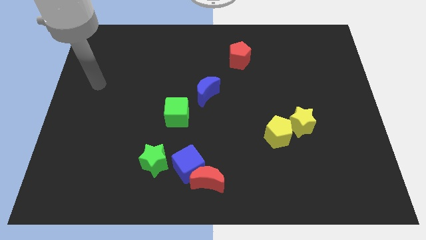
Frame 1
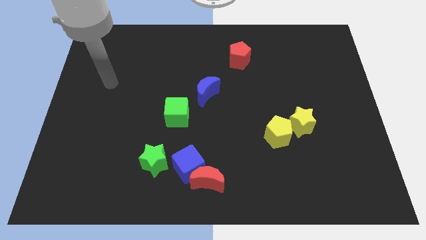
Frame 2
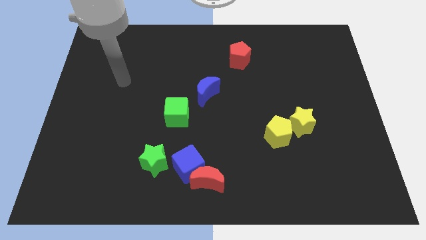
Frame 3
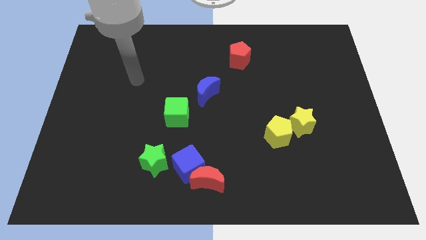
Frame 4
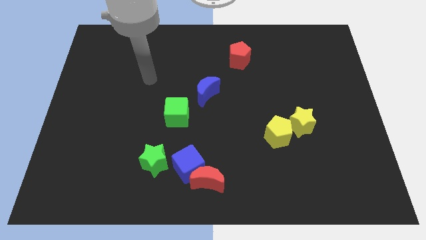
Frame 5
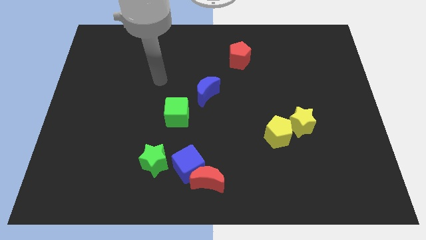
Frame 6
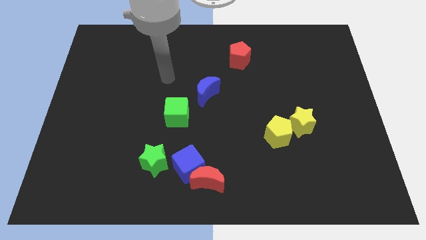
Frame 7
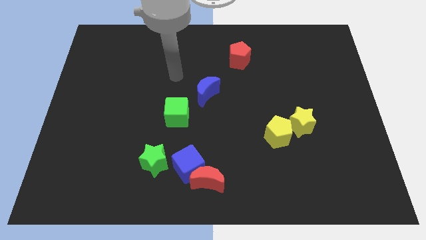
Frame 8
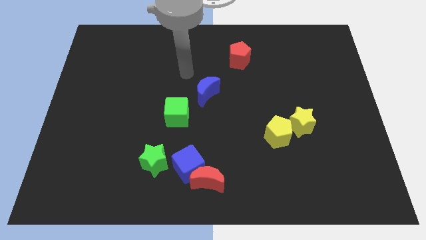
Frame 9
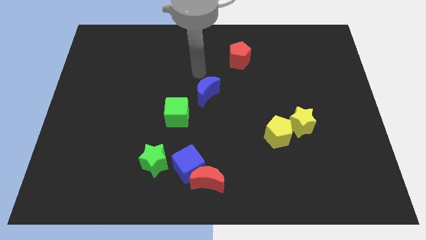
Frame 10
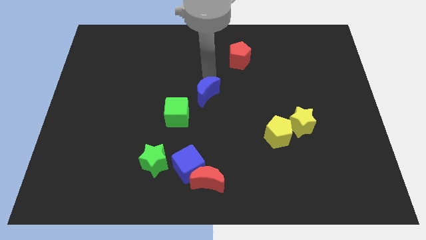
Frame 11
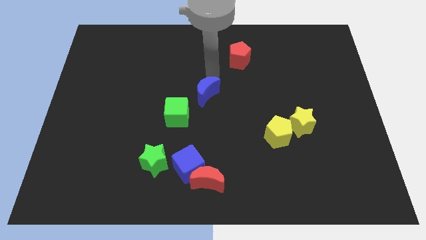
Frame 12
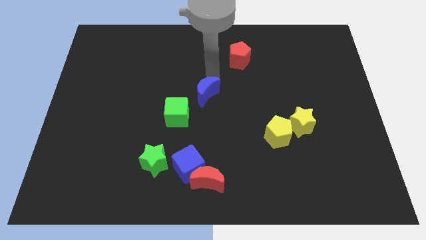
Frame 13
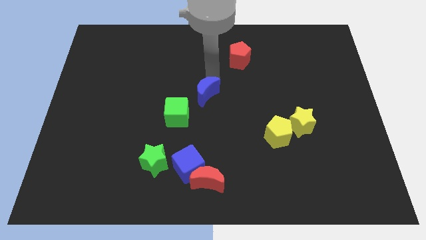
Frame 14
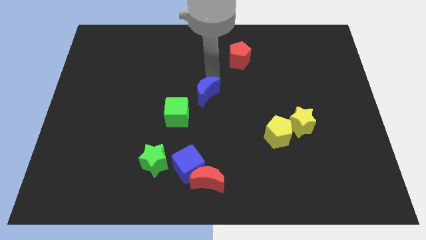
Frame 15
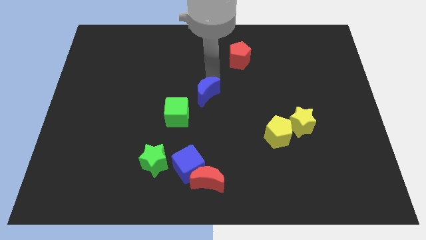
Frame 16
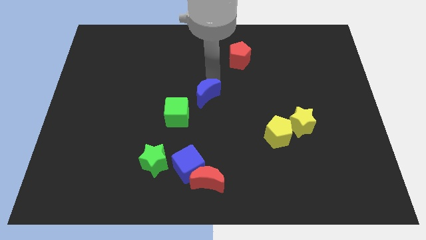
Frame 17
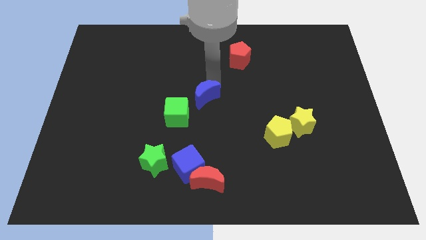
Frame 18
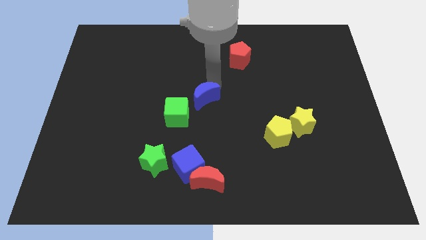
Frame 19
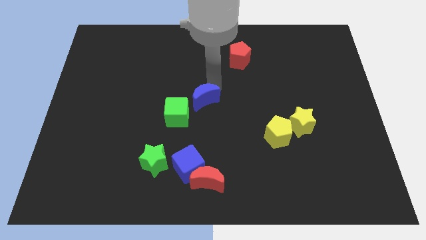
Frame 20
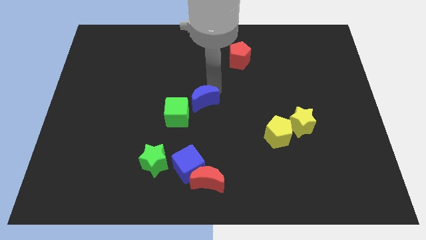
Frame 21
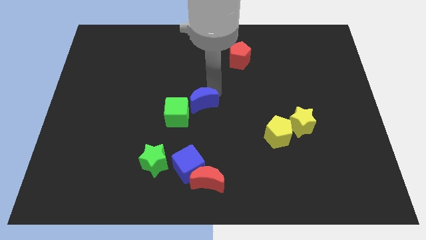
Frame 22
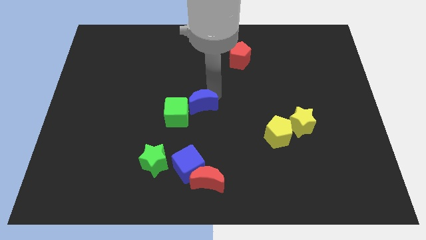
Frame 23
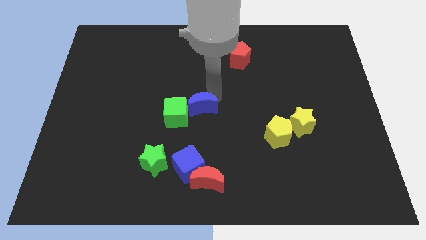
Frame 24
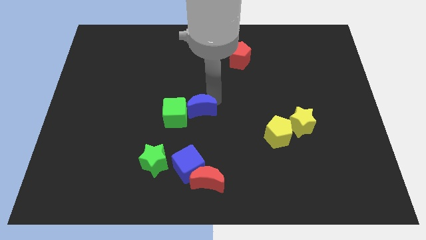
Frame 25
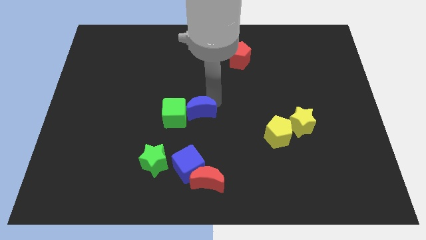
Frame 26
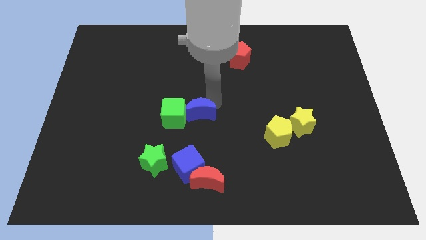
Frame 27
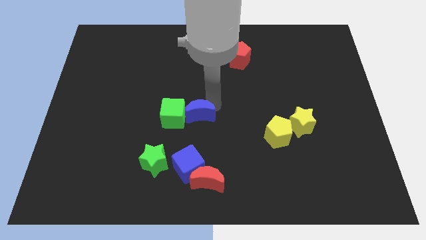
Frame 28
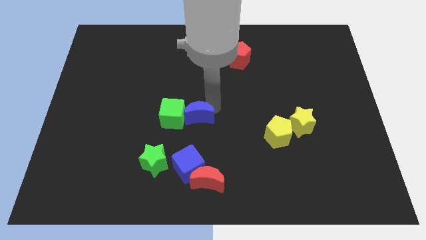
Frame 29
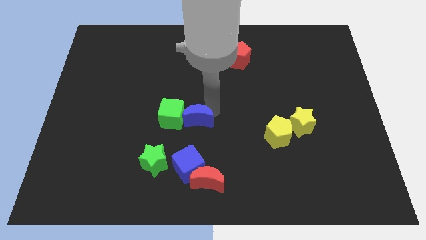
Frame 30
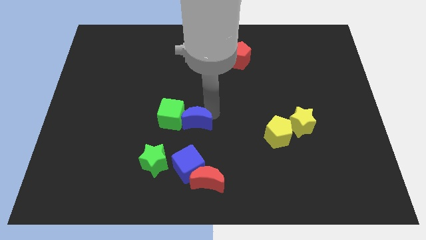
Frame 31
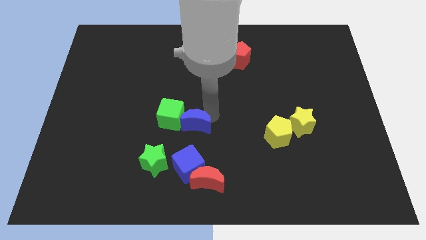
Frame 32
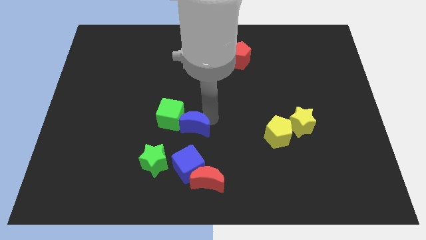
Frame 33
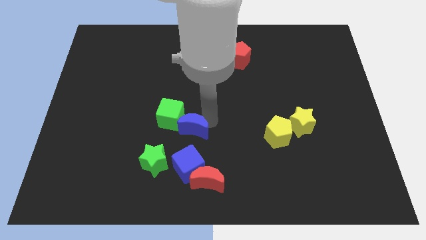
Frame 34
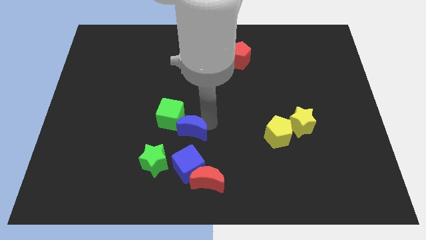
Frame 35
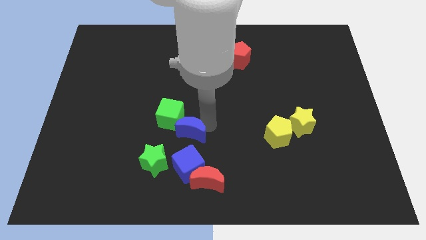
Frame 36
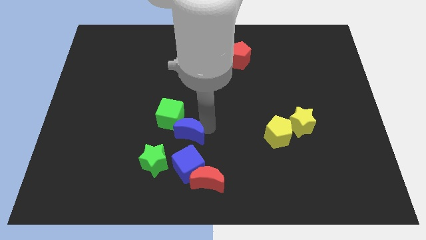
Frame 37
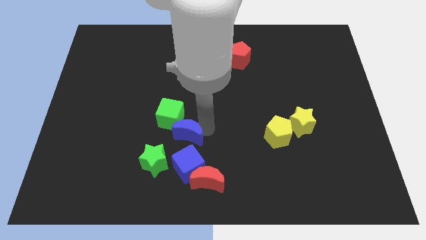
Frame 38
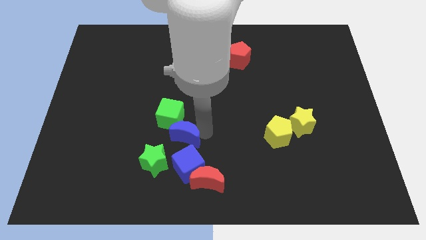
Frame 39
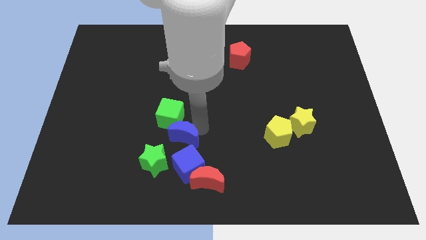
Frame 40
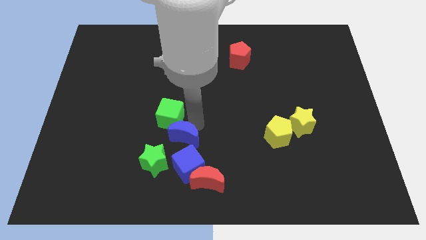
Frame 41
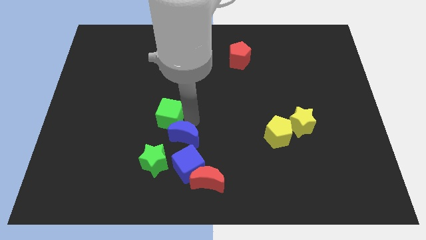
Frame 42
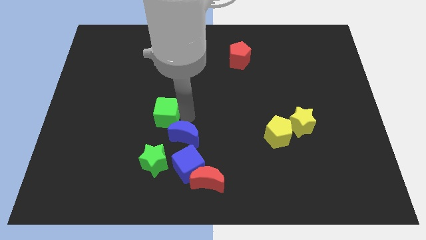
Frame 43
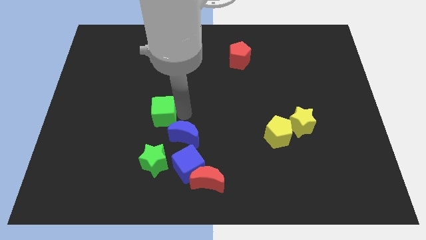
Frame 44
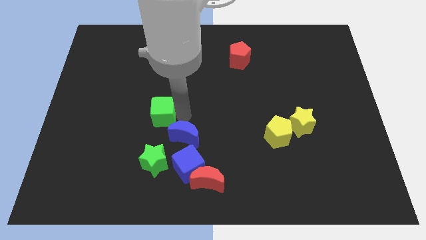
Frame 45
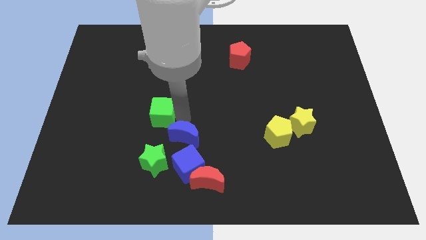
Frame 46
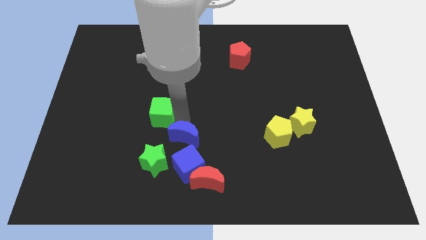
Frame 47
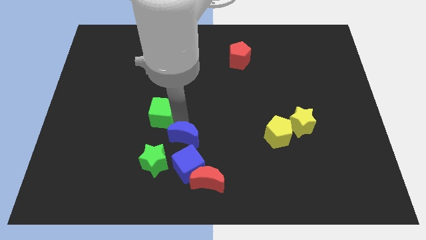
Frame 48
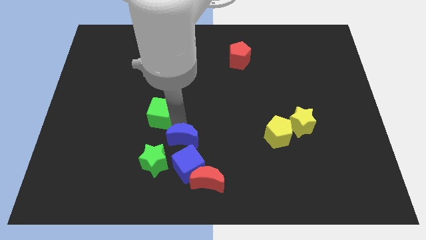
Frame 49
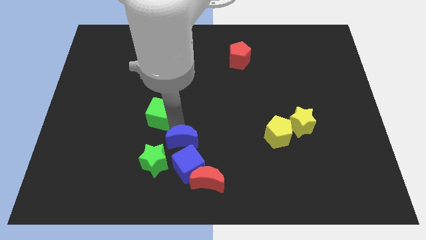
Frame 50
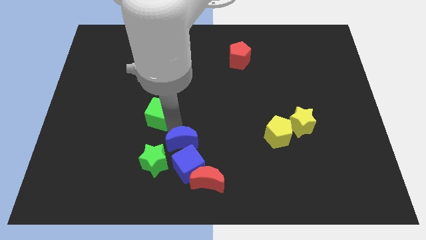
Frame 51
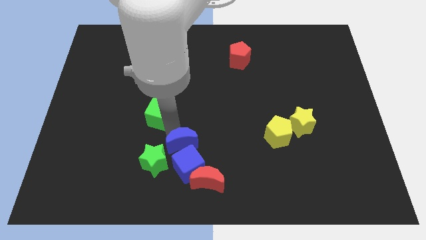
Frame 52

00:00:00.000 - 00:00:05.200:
push the blue moon next to the blue cube

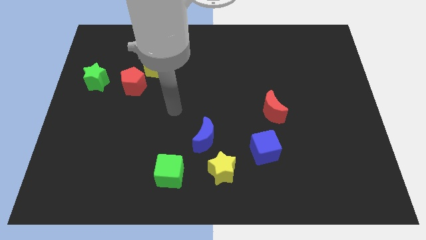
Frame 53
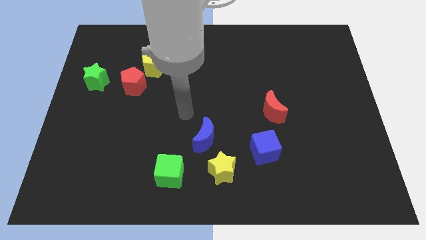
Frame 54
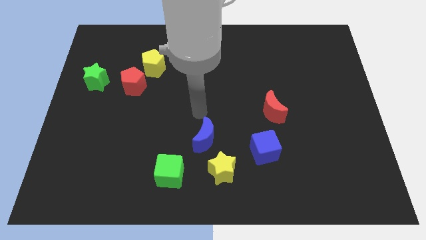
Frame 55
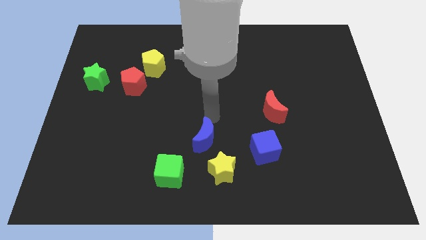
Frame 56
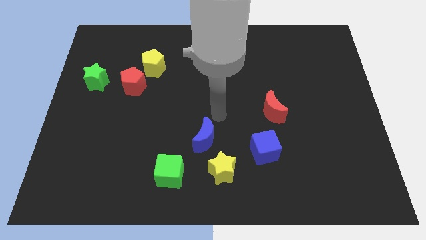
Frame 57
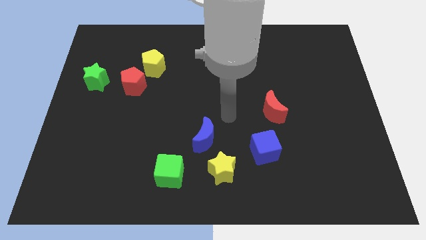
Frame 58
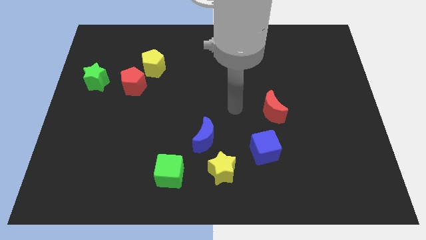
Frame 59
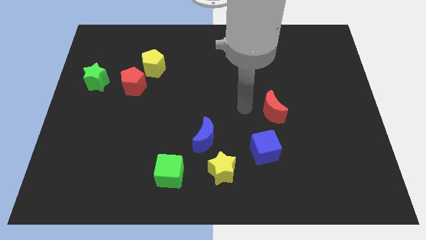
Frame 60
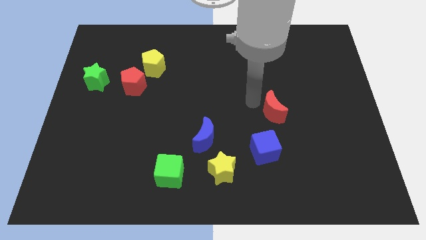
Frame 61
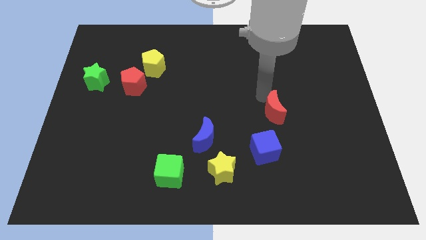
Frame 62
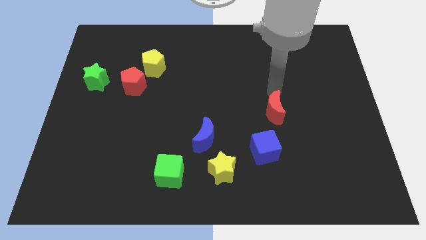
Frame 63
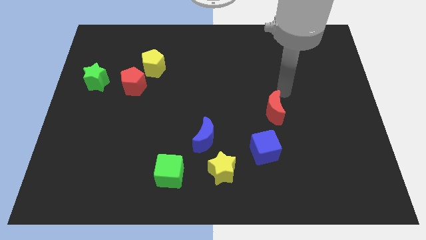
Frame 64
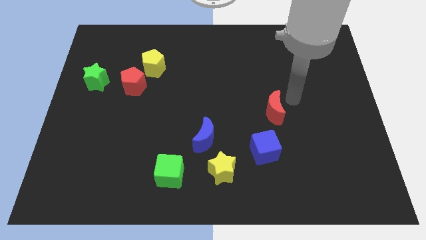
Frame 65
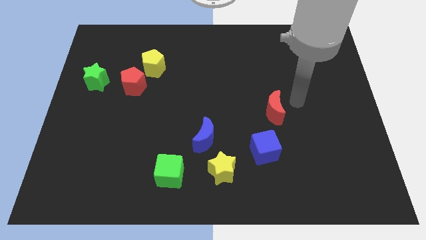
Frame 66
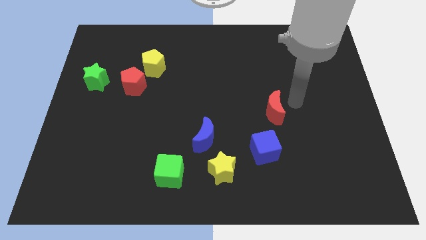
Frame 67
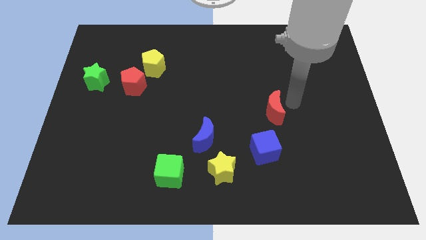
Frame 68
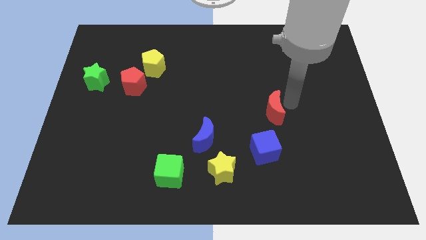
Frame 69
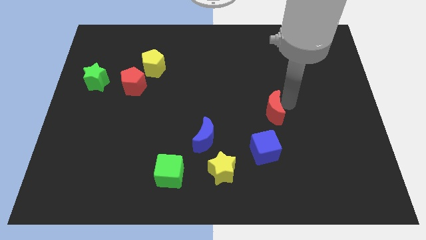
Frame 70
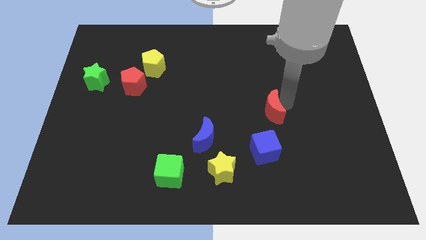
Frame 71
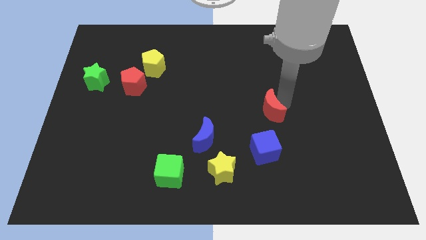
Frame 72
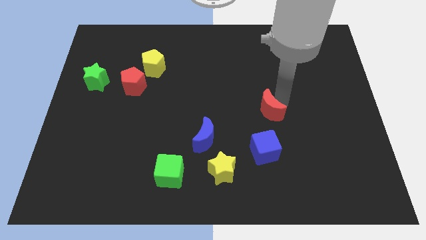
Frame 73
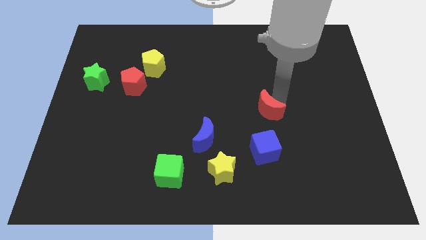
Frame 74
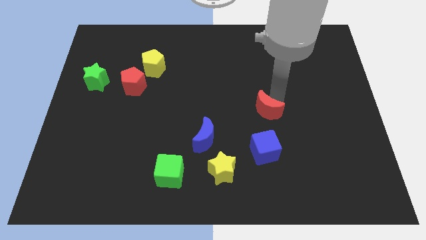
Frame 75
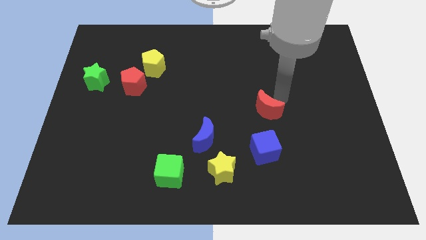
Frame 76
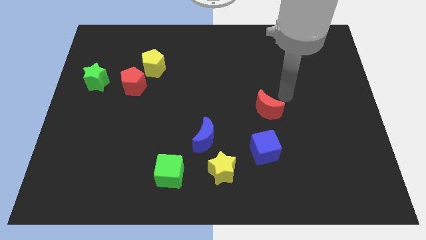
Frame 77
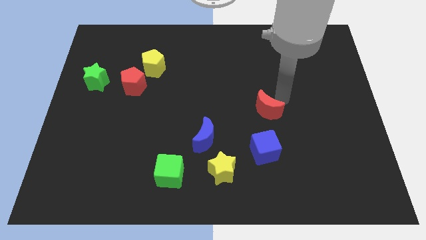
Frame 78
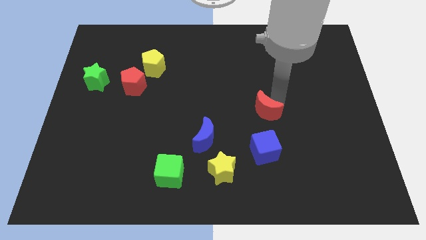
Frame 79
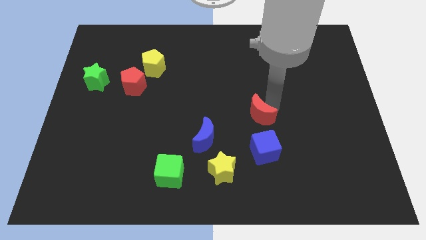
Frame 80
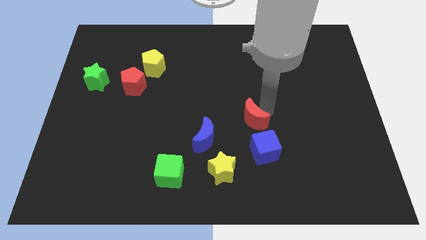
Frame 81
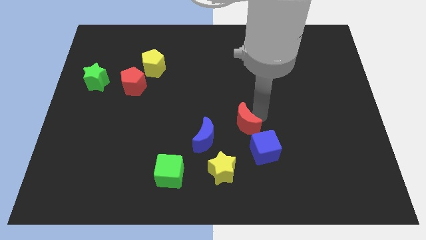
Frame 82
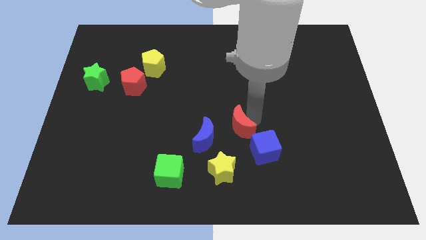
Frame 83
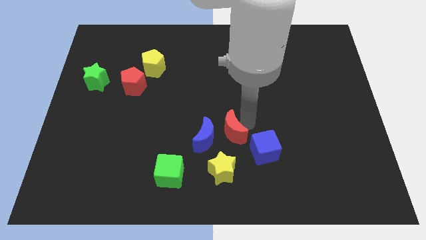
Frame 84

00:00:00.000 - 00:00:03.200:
put the red moon next to the blue moon
